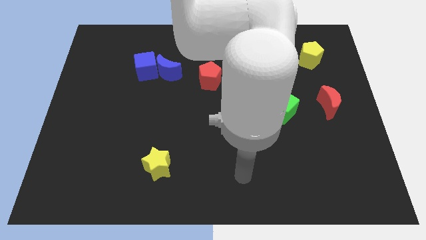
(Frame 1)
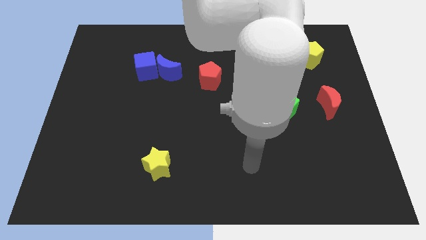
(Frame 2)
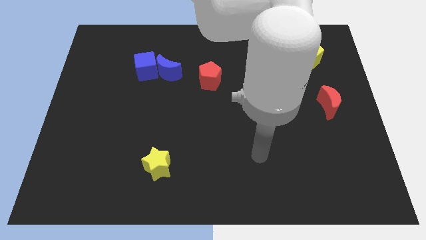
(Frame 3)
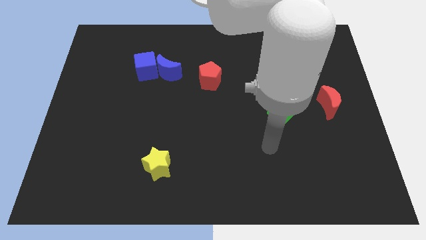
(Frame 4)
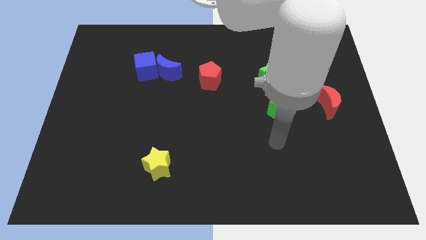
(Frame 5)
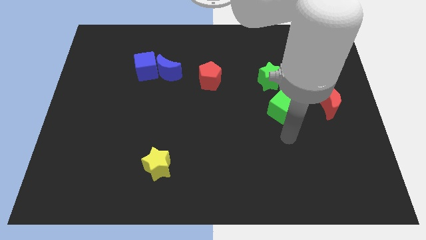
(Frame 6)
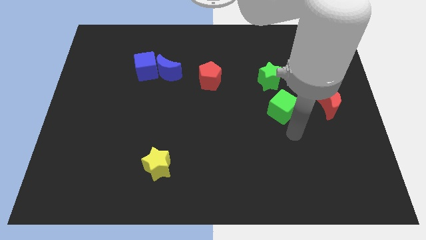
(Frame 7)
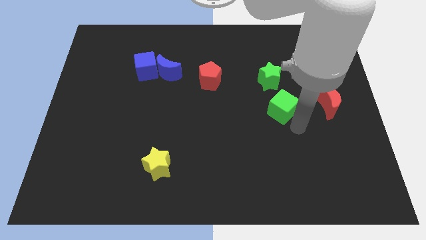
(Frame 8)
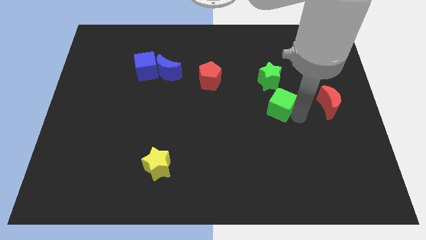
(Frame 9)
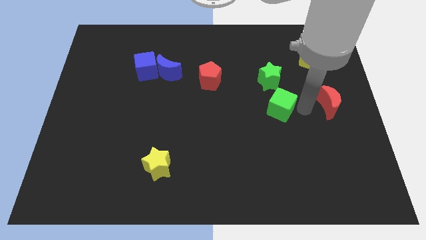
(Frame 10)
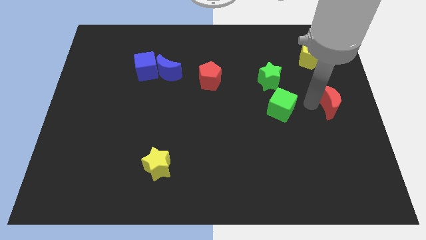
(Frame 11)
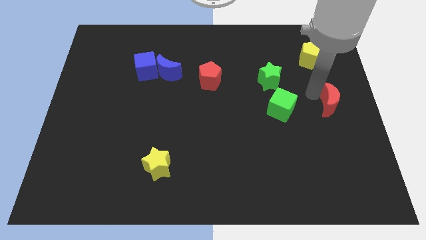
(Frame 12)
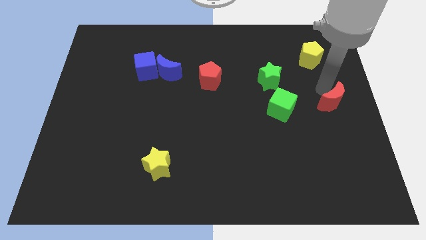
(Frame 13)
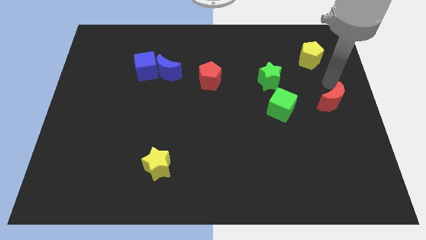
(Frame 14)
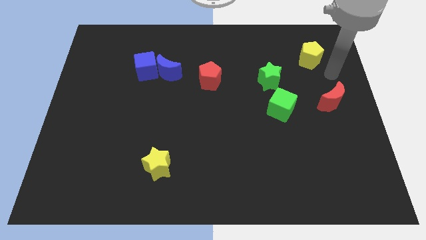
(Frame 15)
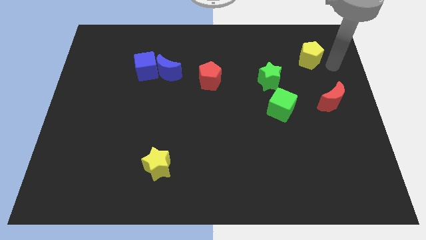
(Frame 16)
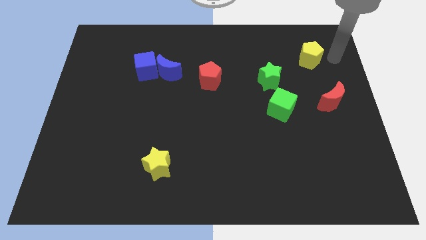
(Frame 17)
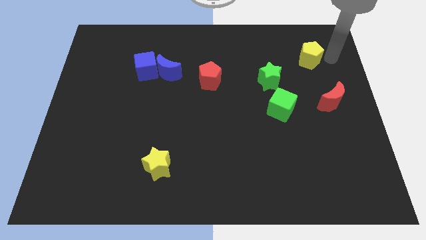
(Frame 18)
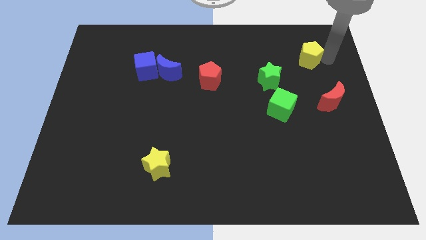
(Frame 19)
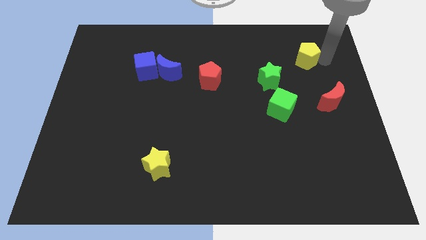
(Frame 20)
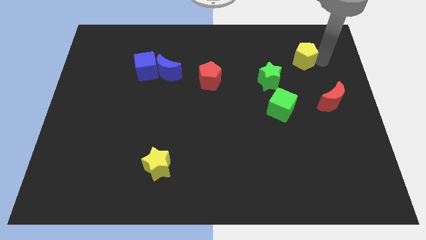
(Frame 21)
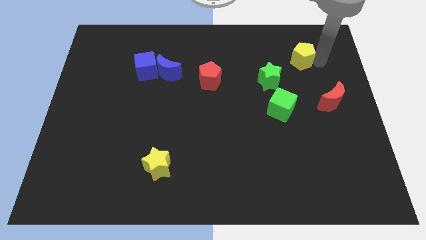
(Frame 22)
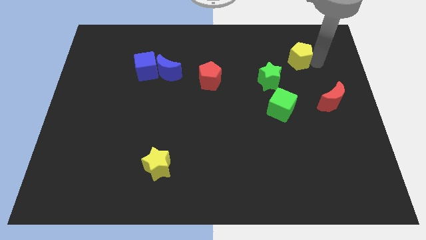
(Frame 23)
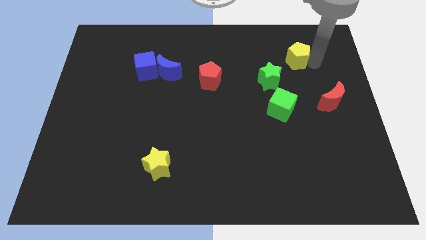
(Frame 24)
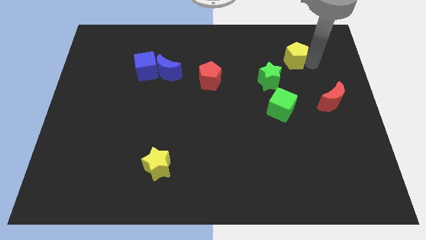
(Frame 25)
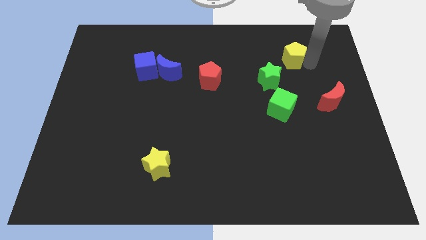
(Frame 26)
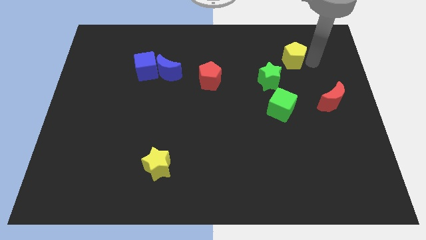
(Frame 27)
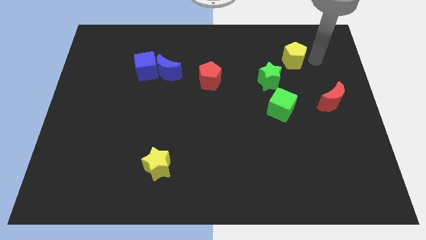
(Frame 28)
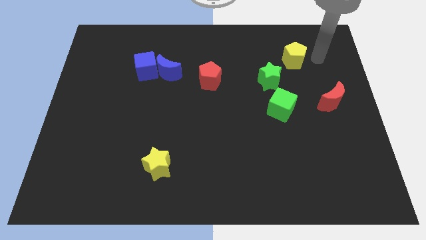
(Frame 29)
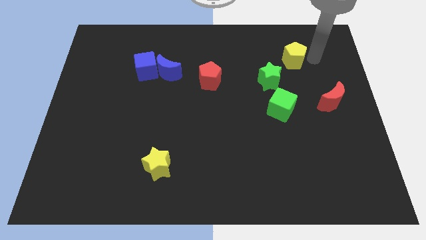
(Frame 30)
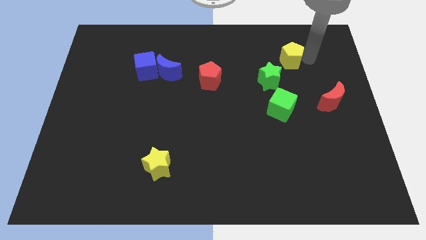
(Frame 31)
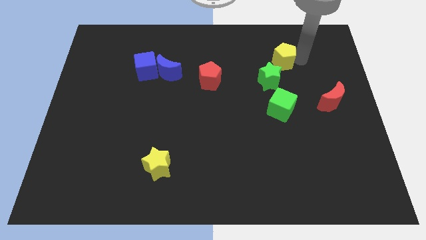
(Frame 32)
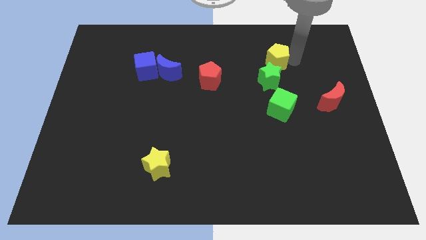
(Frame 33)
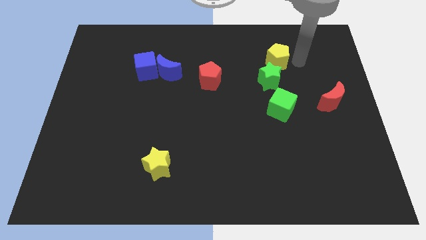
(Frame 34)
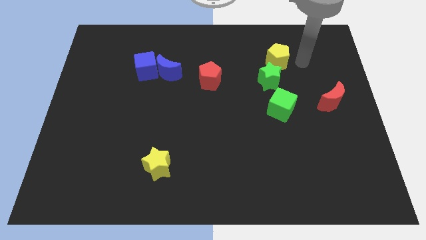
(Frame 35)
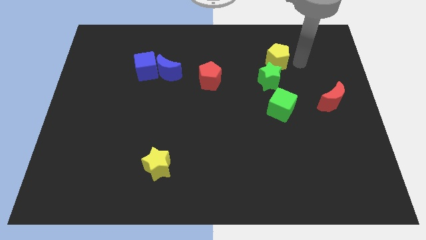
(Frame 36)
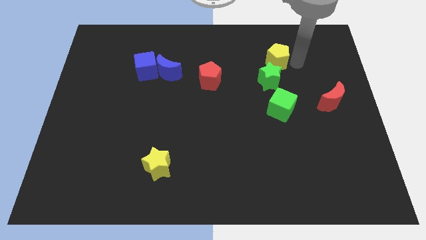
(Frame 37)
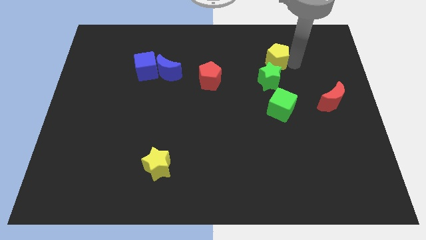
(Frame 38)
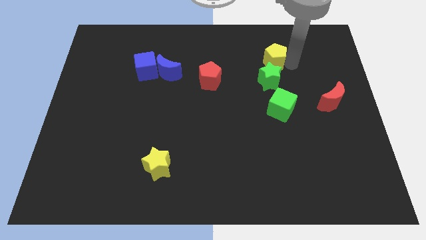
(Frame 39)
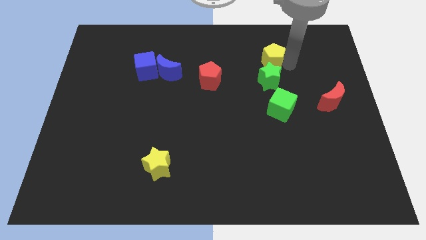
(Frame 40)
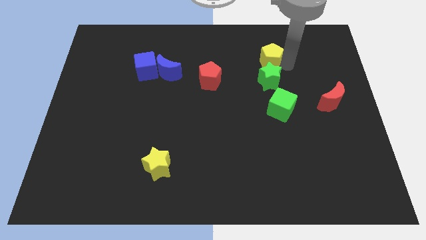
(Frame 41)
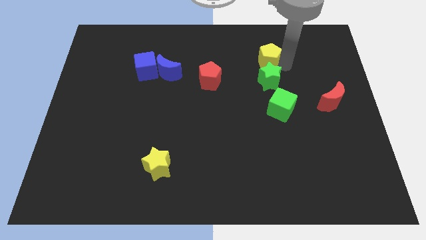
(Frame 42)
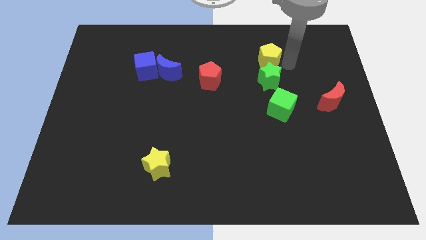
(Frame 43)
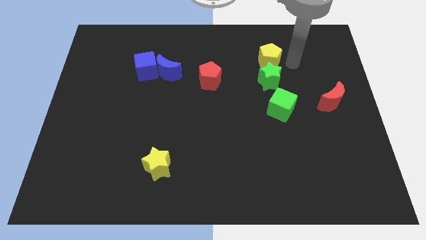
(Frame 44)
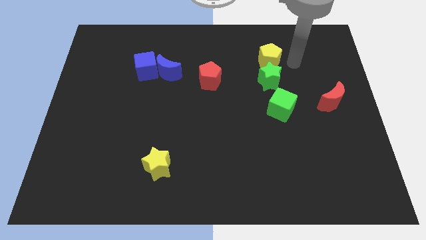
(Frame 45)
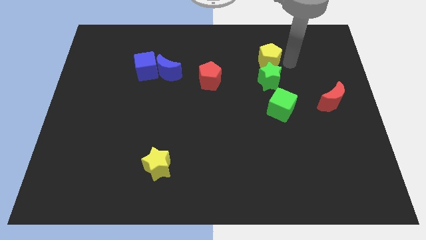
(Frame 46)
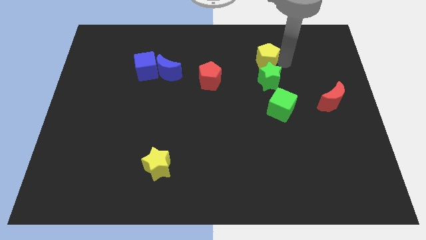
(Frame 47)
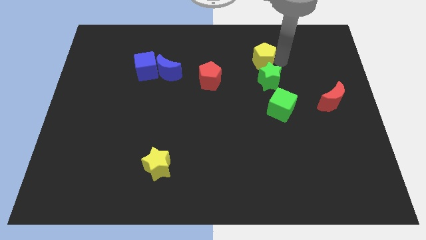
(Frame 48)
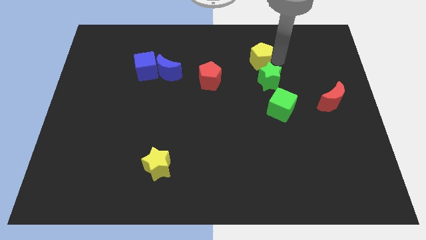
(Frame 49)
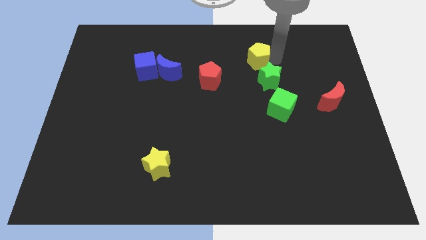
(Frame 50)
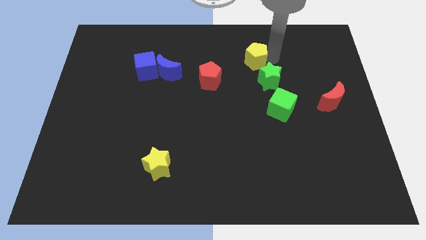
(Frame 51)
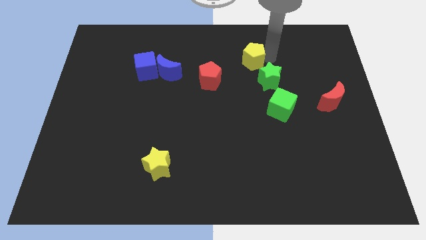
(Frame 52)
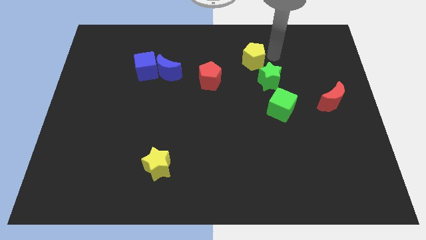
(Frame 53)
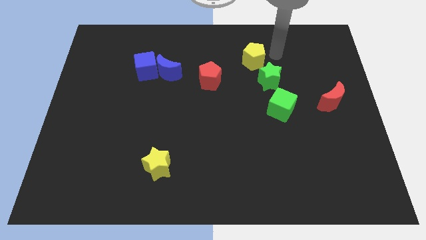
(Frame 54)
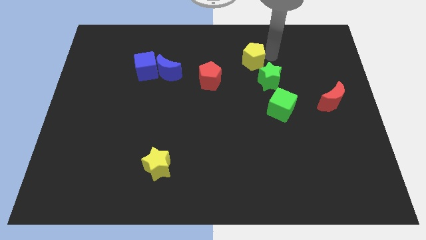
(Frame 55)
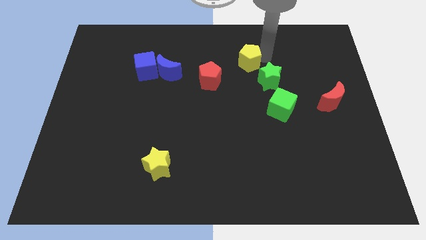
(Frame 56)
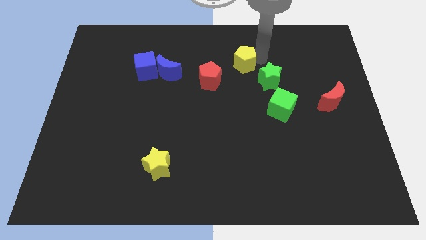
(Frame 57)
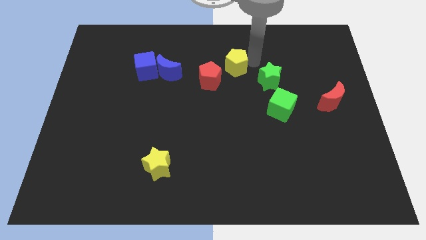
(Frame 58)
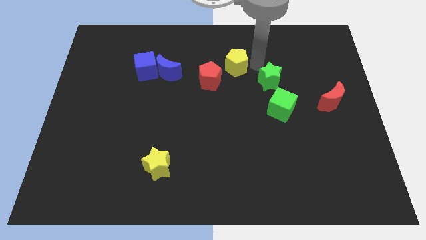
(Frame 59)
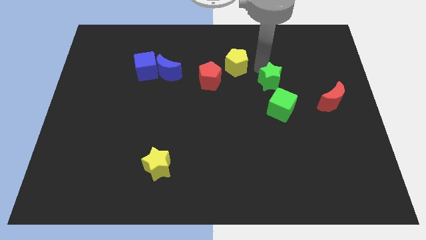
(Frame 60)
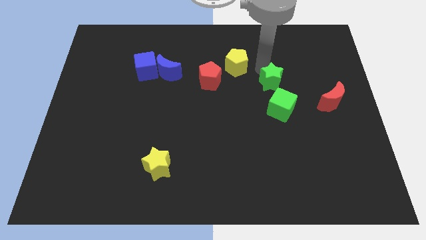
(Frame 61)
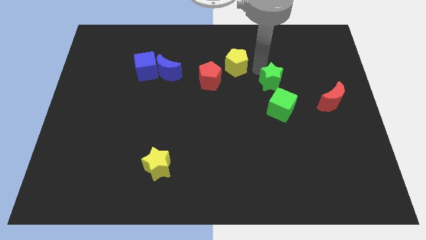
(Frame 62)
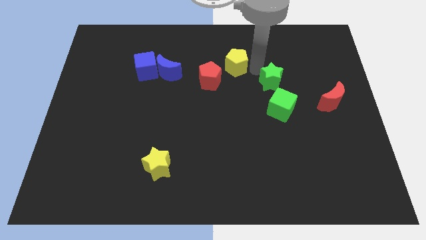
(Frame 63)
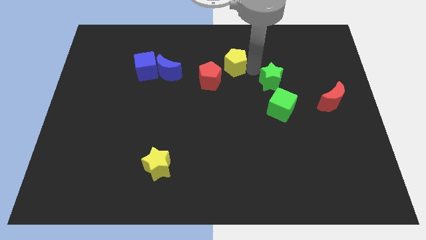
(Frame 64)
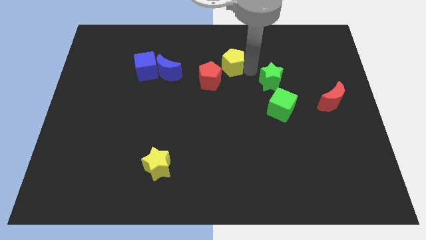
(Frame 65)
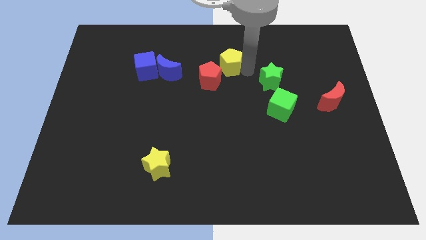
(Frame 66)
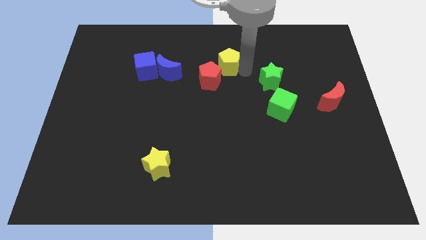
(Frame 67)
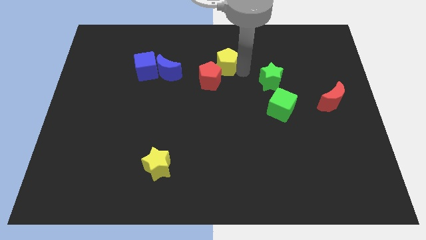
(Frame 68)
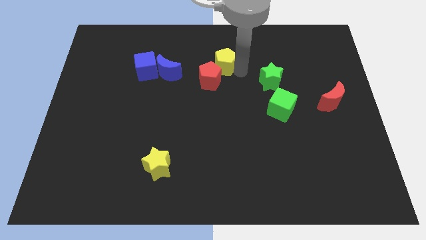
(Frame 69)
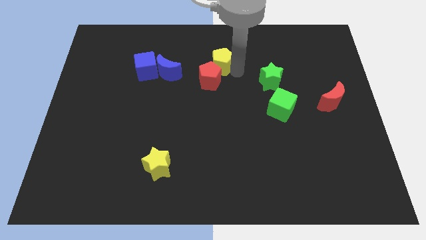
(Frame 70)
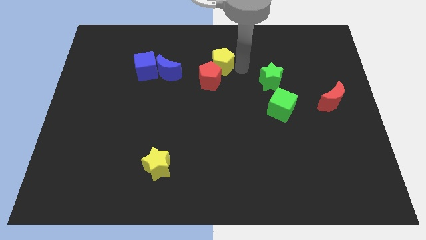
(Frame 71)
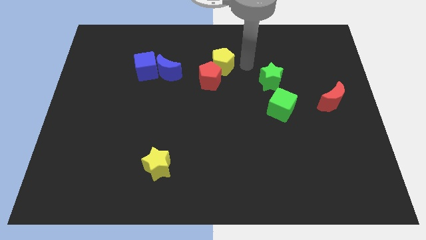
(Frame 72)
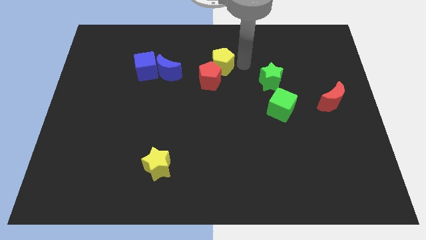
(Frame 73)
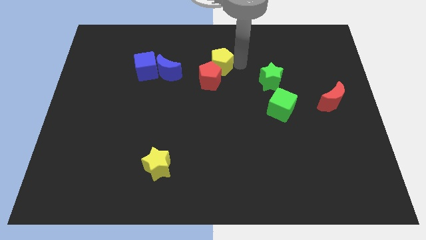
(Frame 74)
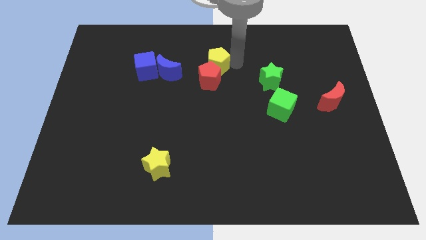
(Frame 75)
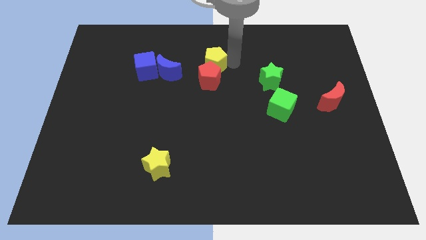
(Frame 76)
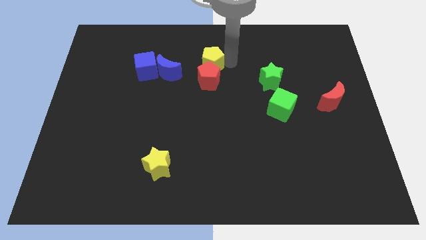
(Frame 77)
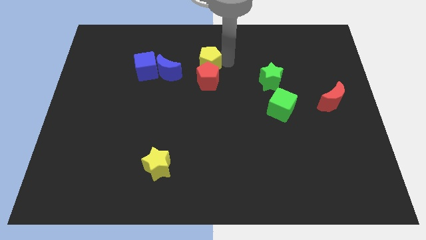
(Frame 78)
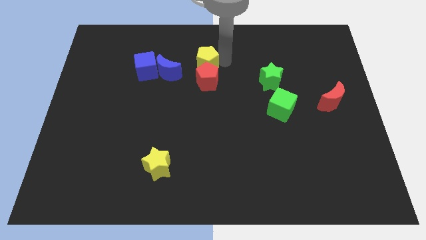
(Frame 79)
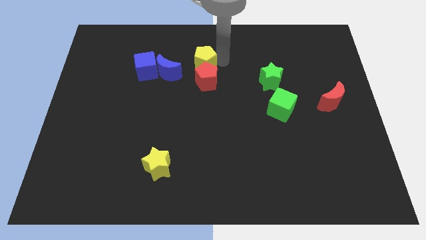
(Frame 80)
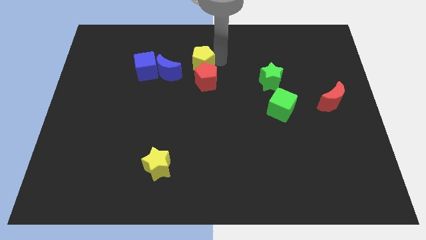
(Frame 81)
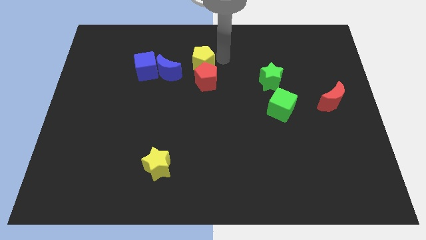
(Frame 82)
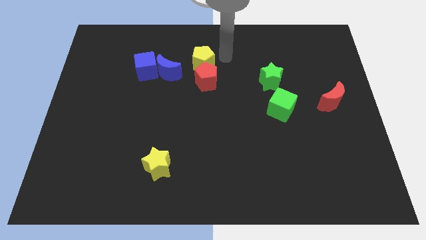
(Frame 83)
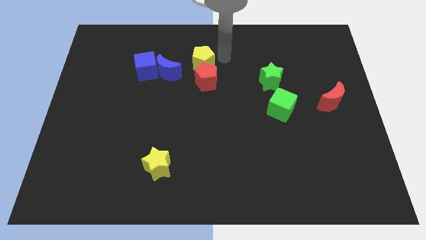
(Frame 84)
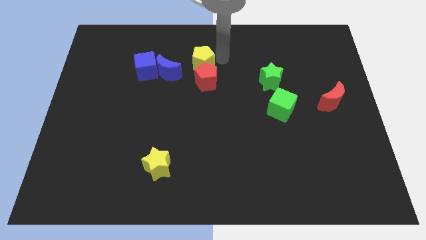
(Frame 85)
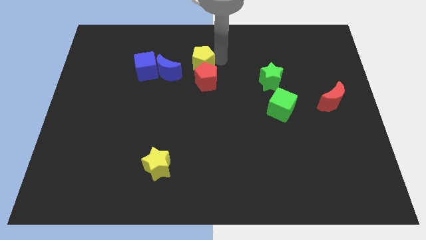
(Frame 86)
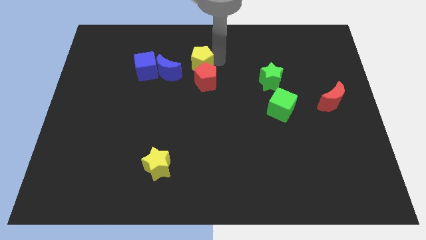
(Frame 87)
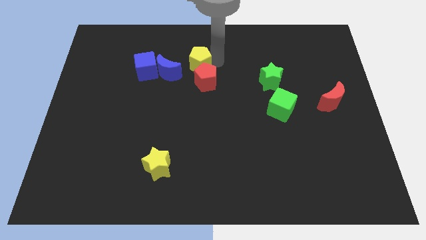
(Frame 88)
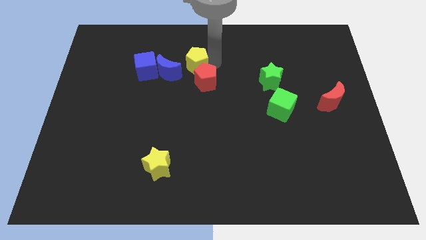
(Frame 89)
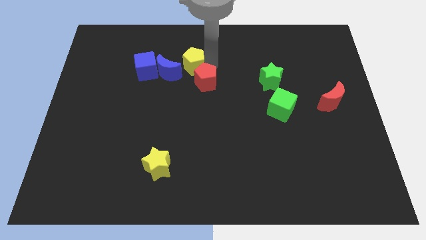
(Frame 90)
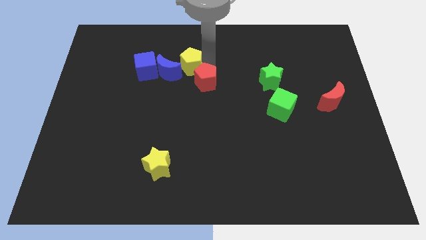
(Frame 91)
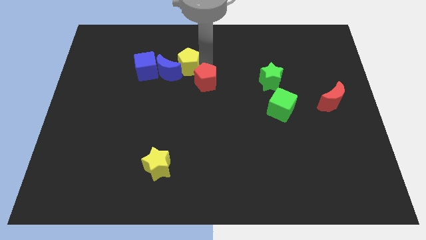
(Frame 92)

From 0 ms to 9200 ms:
slide the yellow pentagon next to the blue moon
